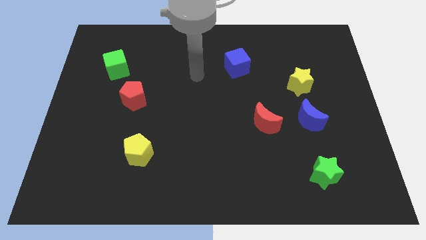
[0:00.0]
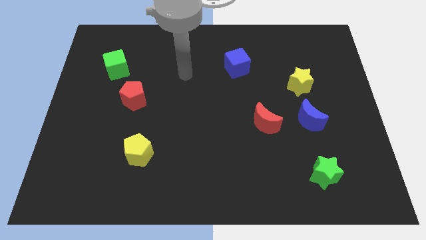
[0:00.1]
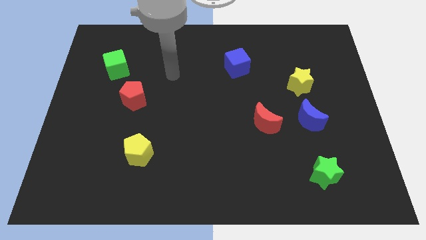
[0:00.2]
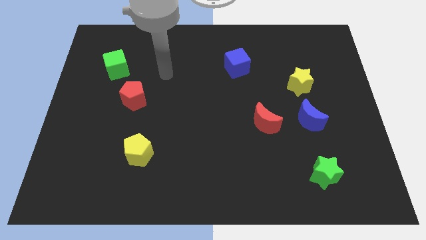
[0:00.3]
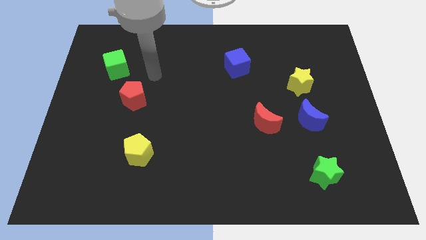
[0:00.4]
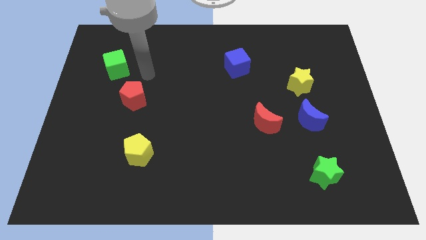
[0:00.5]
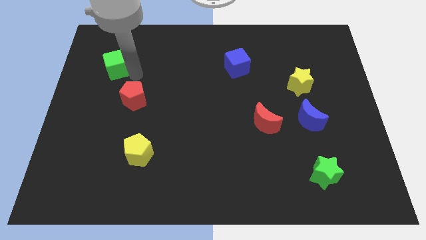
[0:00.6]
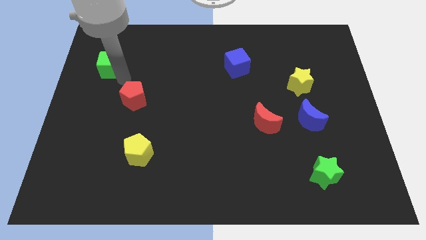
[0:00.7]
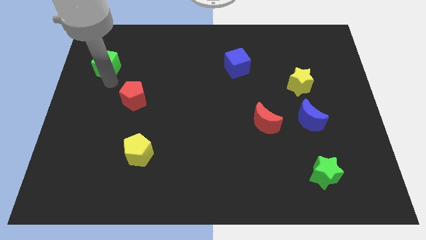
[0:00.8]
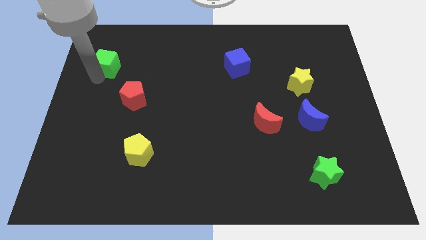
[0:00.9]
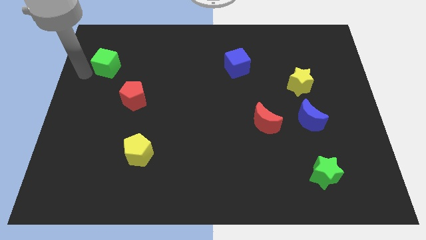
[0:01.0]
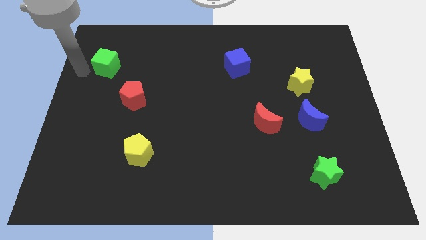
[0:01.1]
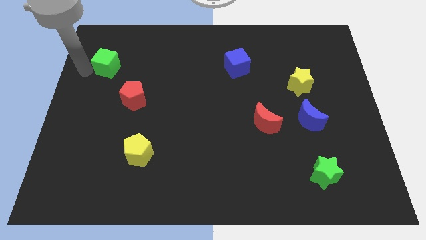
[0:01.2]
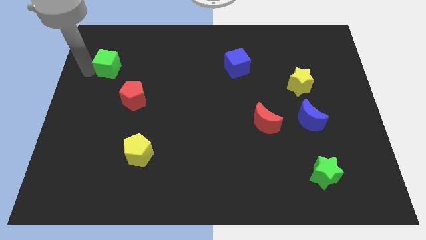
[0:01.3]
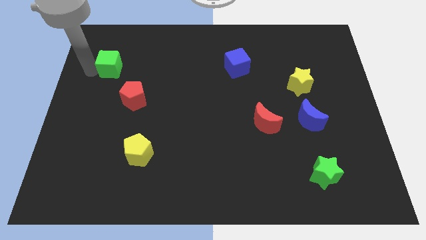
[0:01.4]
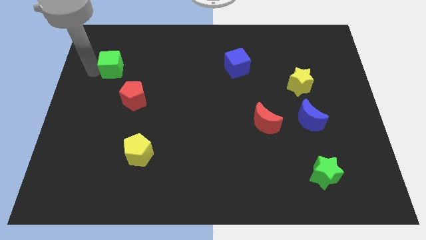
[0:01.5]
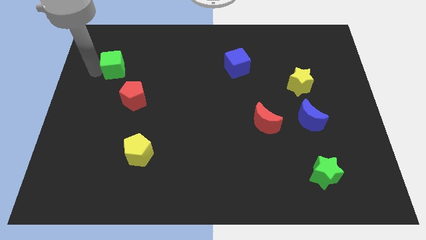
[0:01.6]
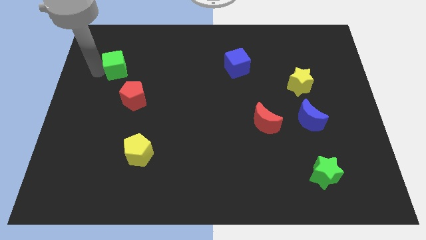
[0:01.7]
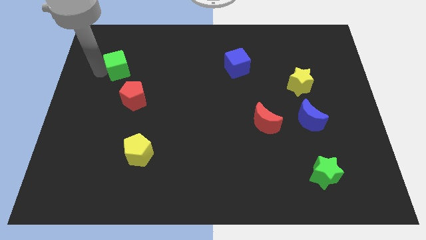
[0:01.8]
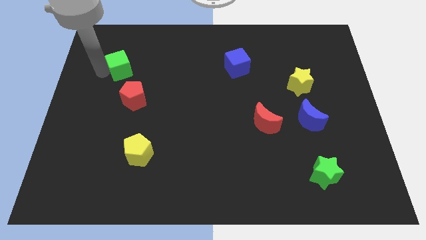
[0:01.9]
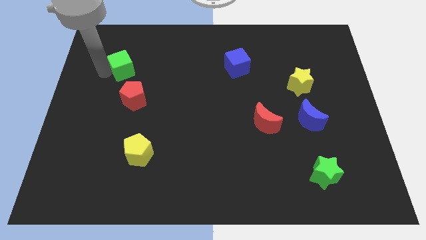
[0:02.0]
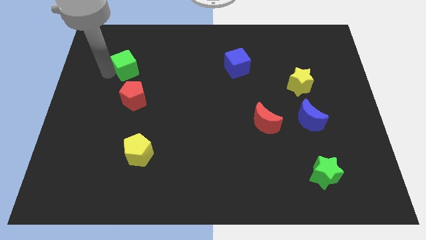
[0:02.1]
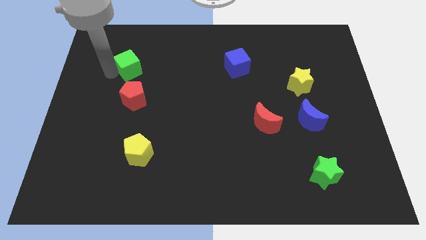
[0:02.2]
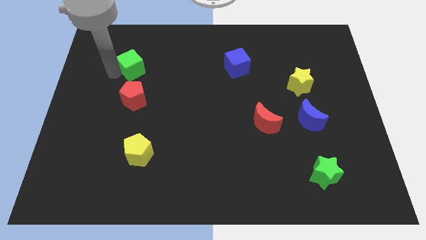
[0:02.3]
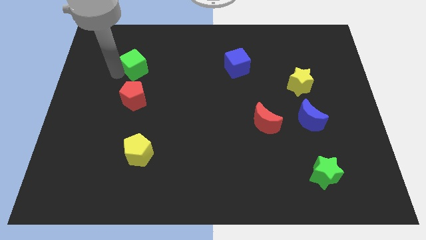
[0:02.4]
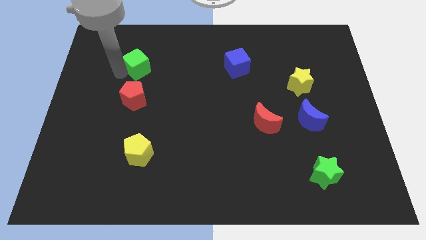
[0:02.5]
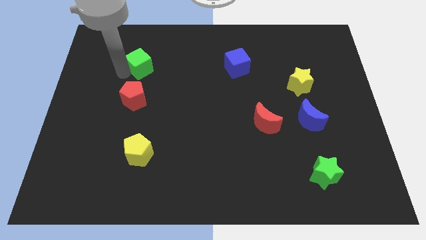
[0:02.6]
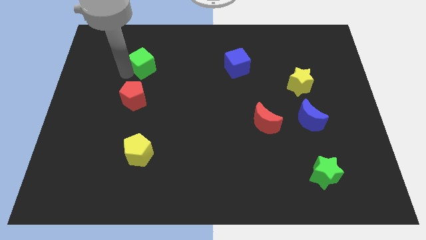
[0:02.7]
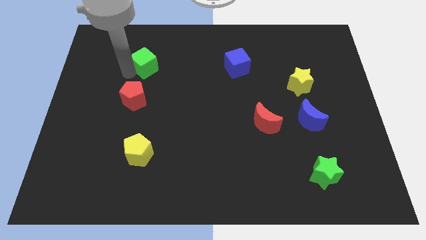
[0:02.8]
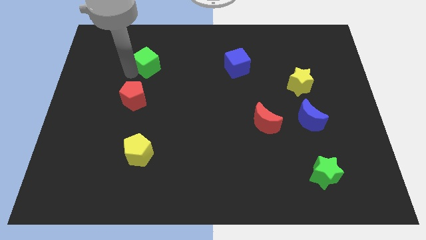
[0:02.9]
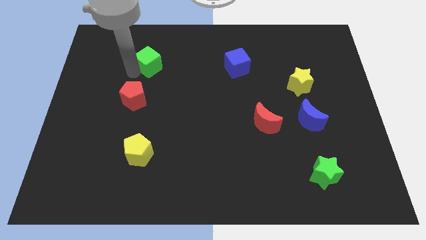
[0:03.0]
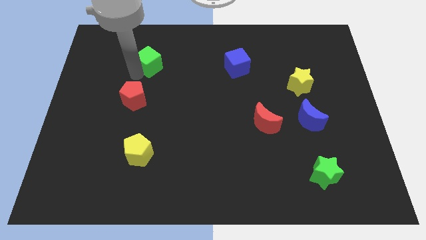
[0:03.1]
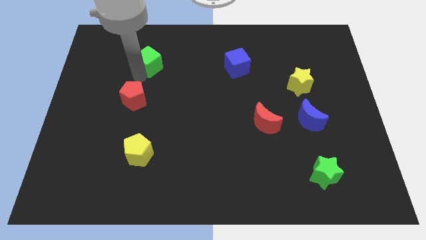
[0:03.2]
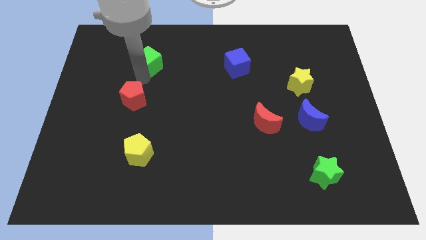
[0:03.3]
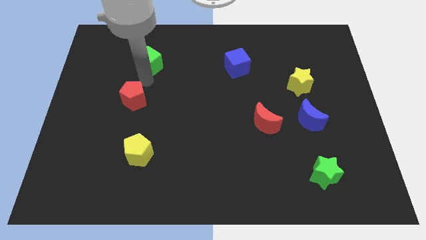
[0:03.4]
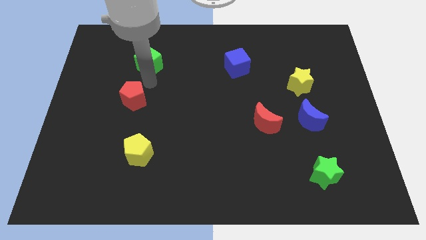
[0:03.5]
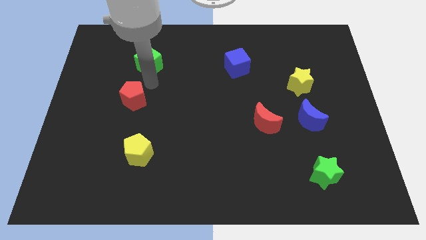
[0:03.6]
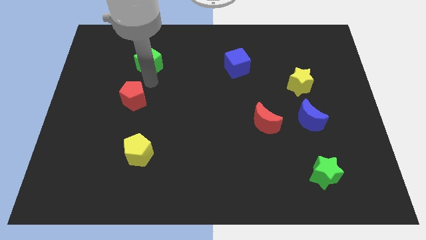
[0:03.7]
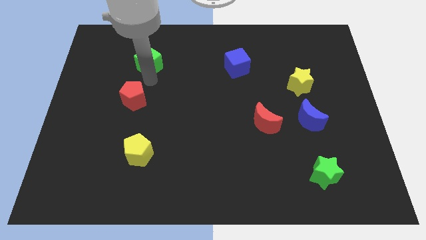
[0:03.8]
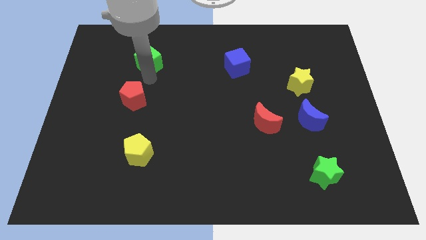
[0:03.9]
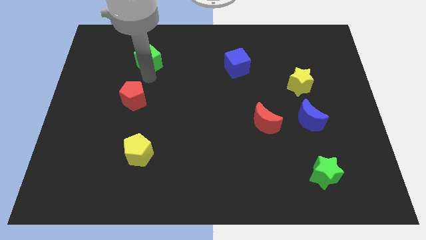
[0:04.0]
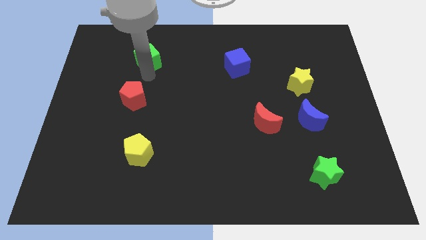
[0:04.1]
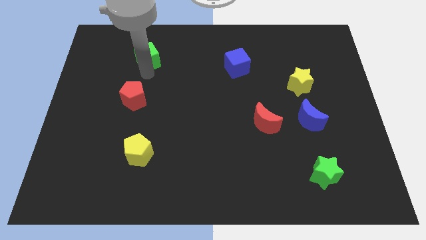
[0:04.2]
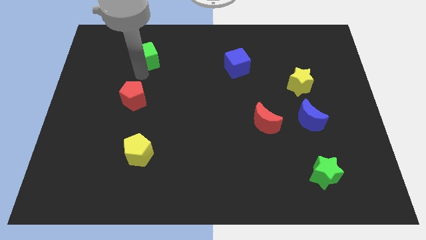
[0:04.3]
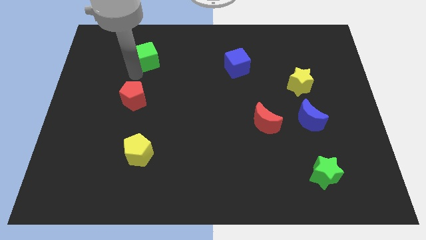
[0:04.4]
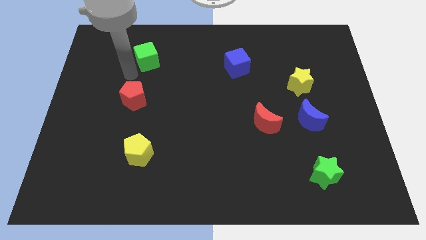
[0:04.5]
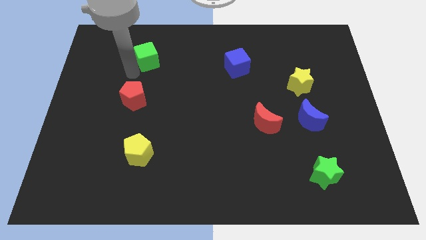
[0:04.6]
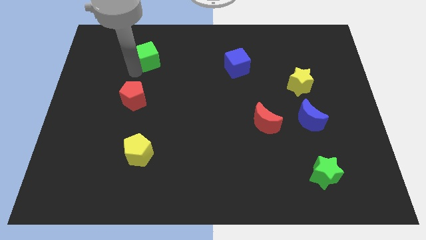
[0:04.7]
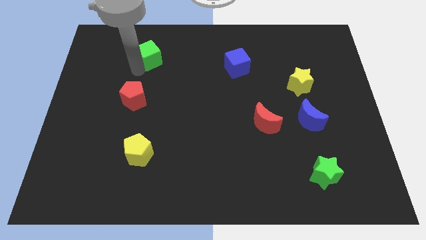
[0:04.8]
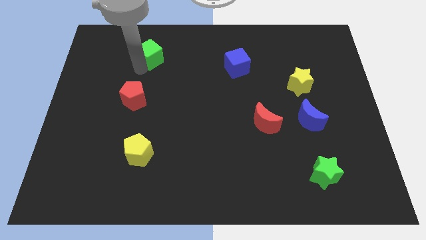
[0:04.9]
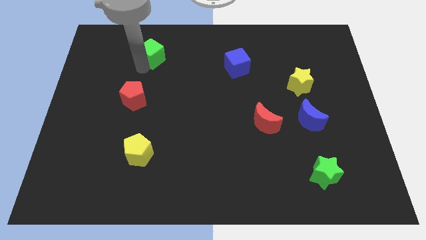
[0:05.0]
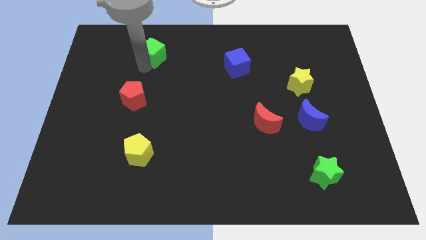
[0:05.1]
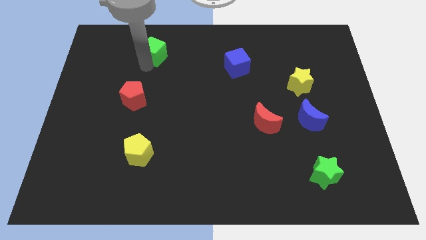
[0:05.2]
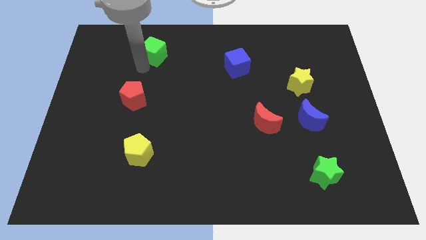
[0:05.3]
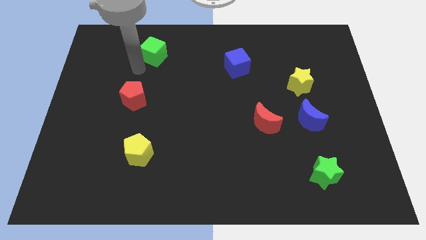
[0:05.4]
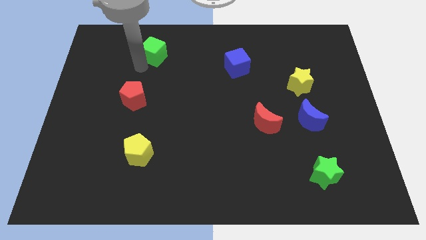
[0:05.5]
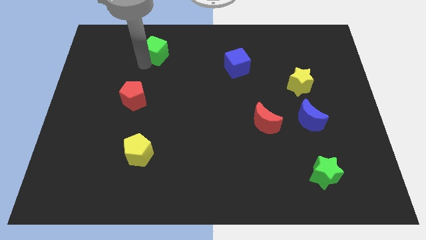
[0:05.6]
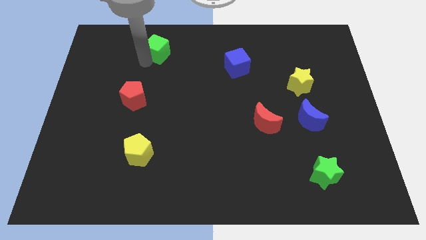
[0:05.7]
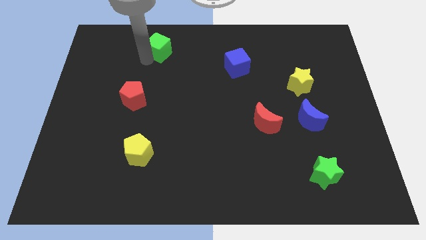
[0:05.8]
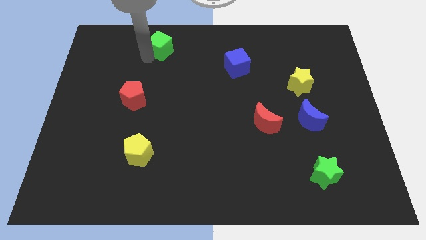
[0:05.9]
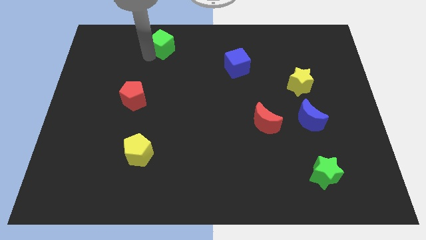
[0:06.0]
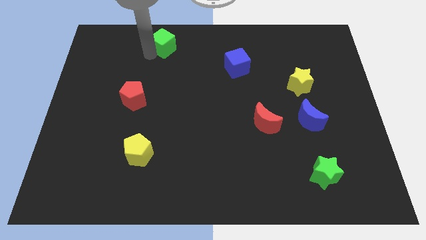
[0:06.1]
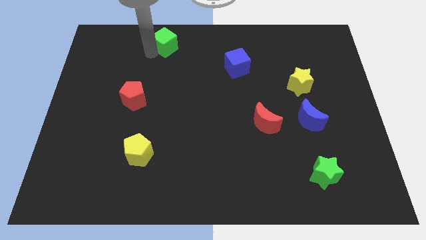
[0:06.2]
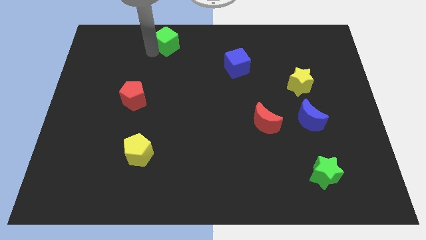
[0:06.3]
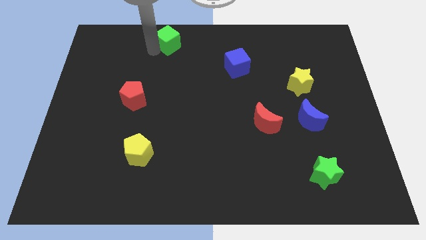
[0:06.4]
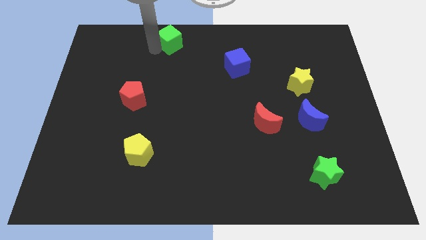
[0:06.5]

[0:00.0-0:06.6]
put the green cube to the towards your base
